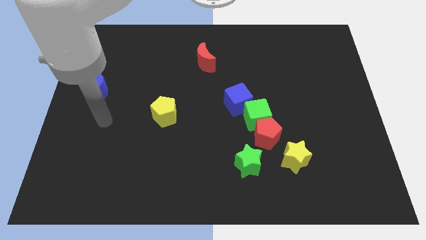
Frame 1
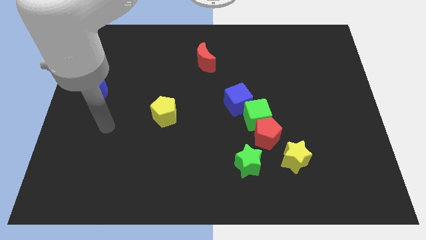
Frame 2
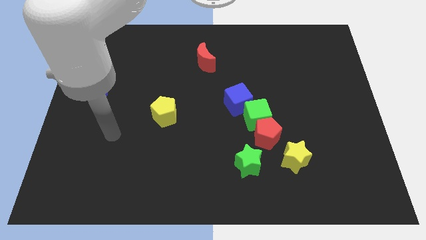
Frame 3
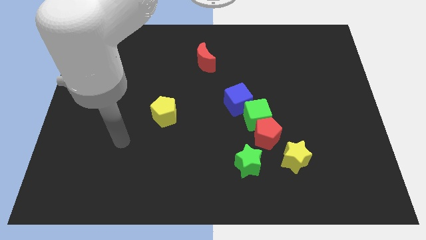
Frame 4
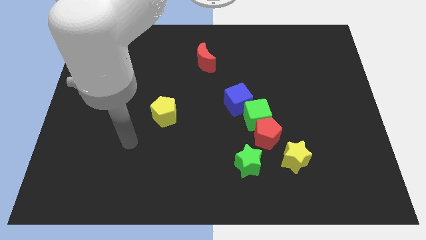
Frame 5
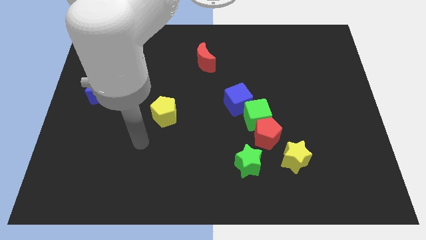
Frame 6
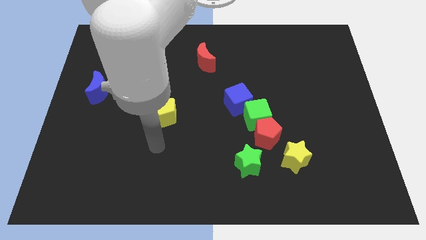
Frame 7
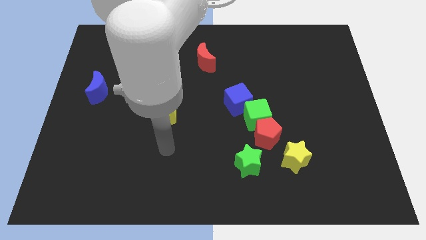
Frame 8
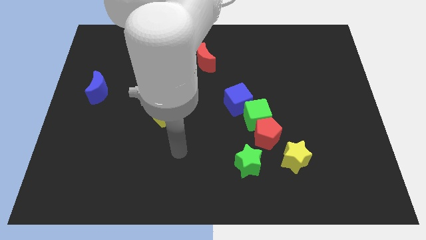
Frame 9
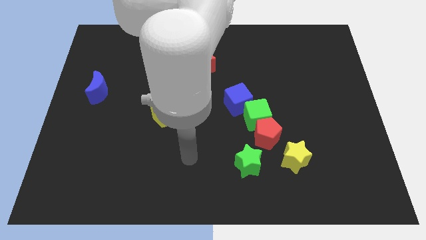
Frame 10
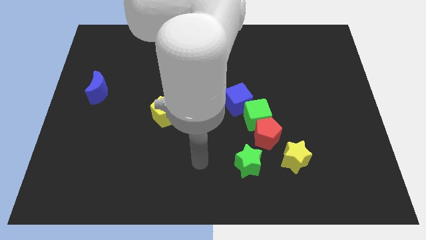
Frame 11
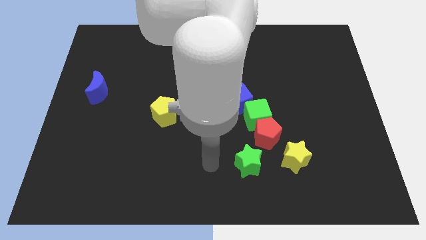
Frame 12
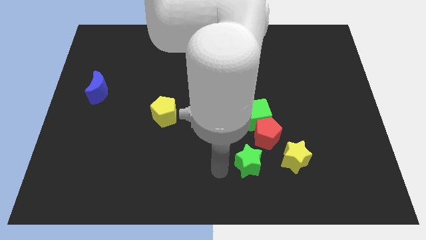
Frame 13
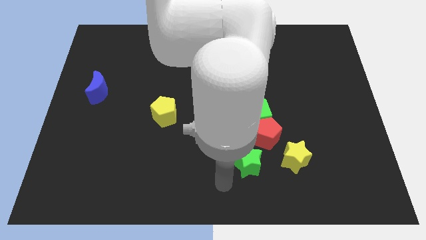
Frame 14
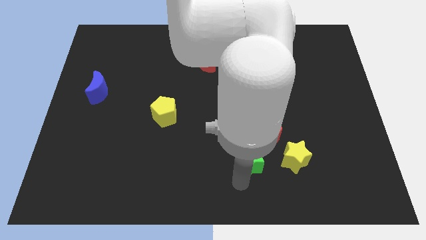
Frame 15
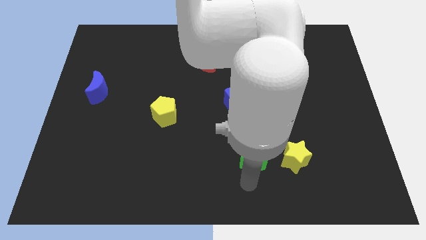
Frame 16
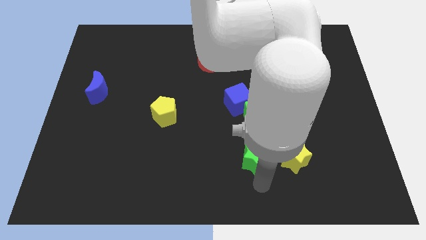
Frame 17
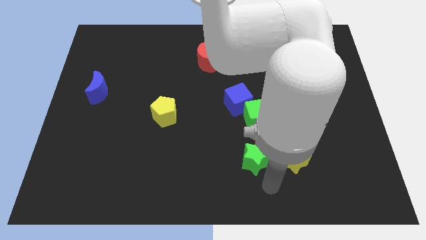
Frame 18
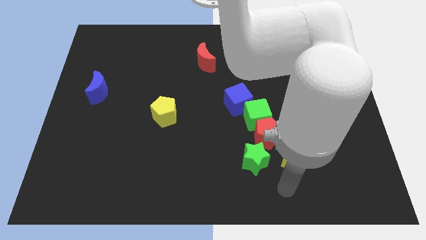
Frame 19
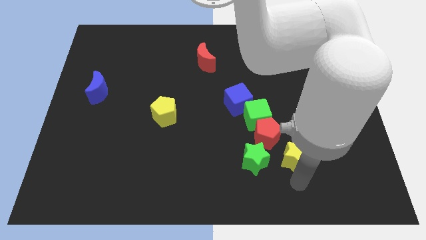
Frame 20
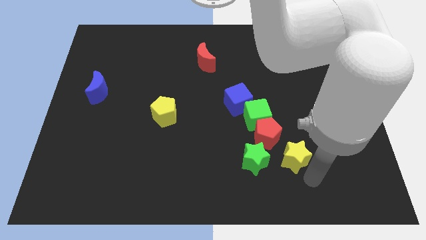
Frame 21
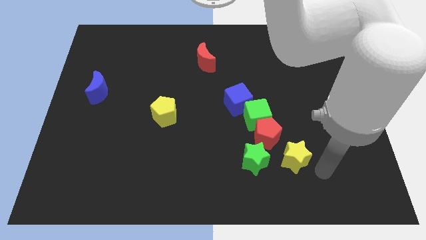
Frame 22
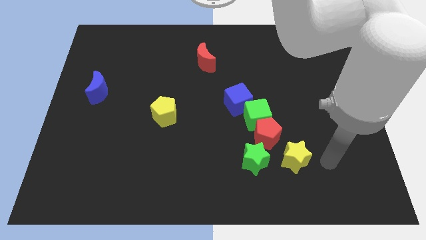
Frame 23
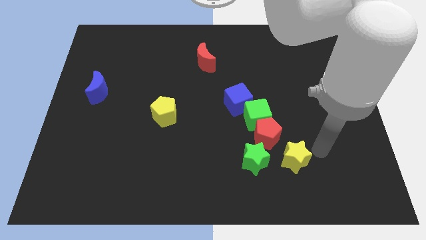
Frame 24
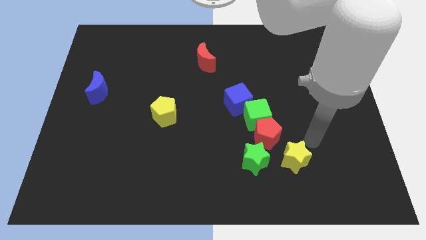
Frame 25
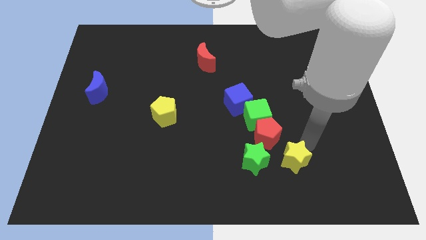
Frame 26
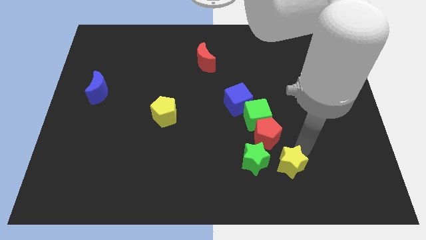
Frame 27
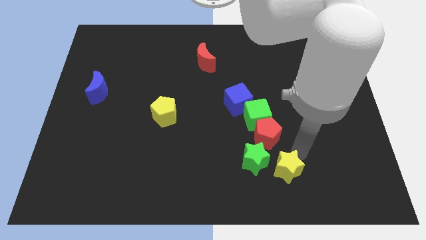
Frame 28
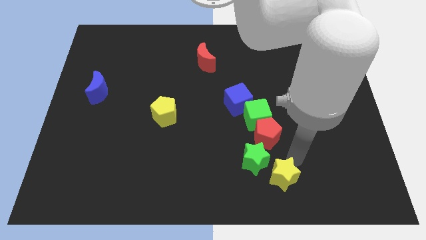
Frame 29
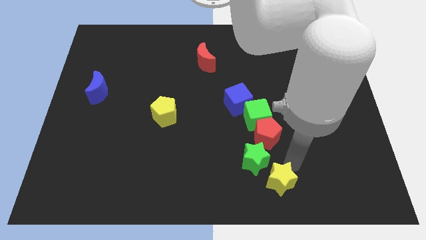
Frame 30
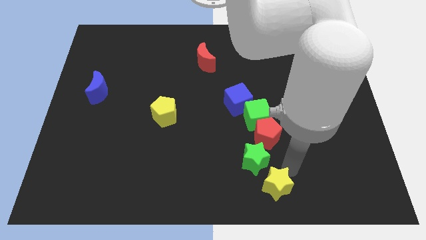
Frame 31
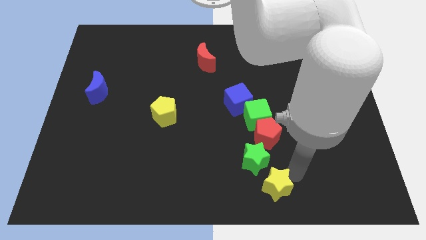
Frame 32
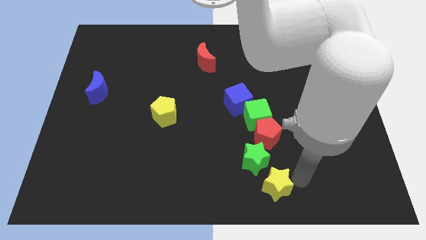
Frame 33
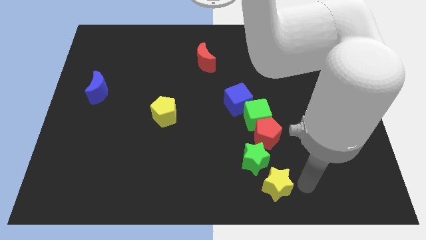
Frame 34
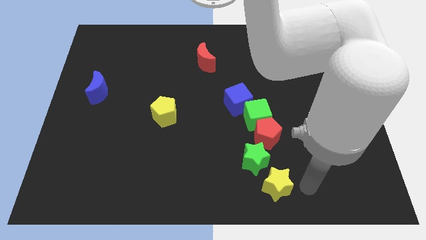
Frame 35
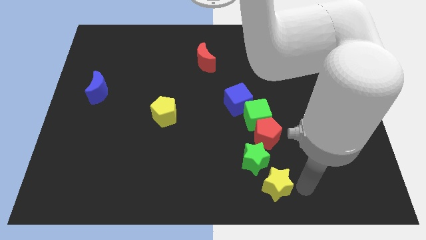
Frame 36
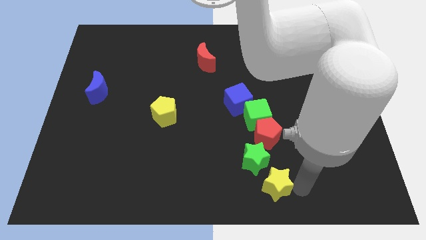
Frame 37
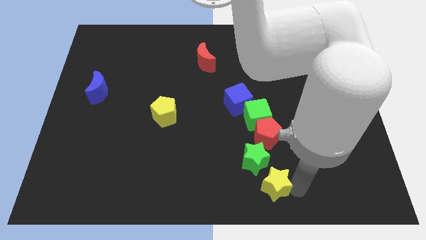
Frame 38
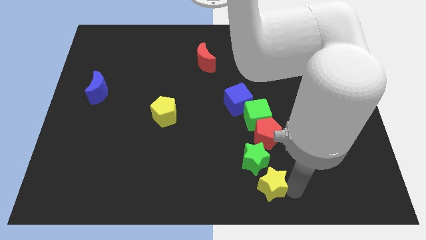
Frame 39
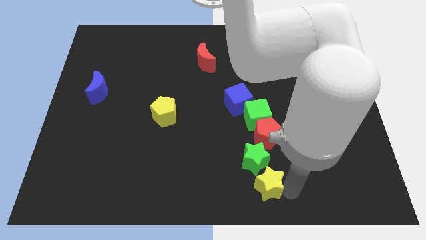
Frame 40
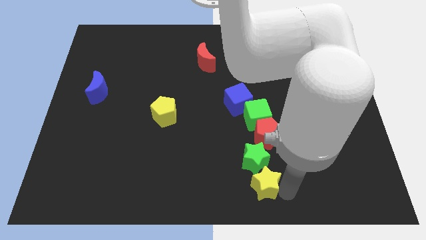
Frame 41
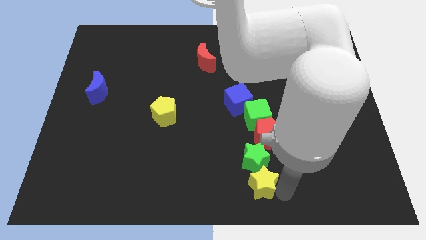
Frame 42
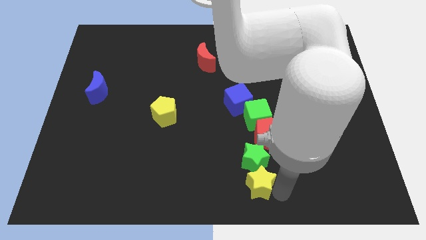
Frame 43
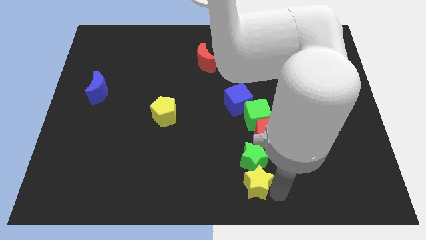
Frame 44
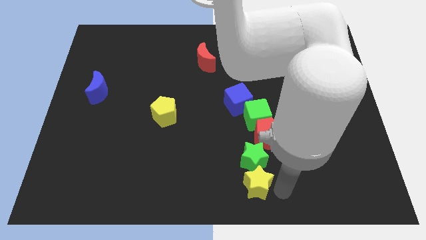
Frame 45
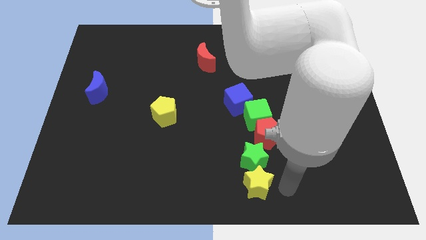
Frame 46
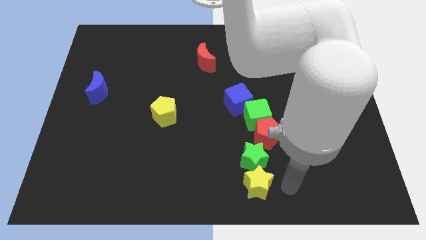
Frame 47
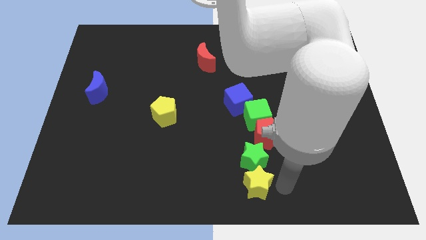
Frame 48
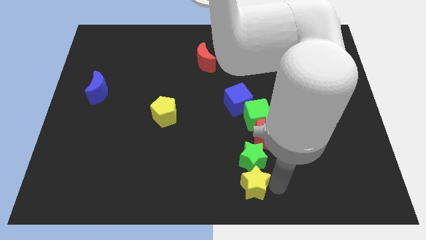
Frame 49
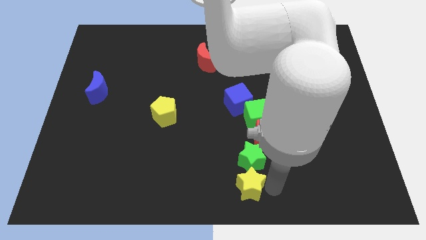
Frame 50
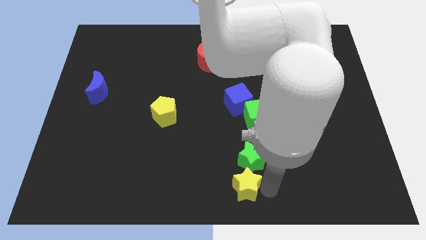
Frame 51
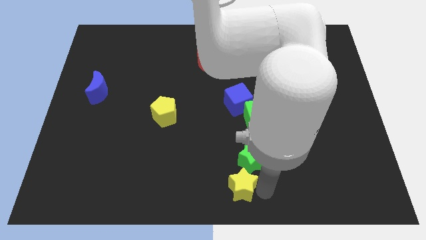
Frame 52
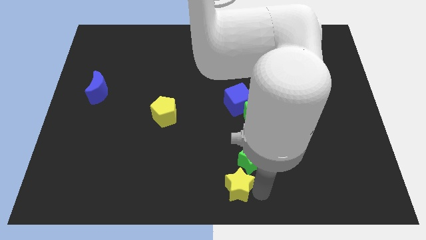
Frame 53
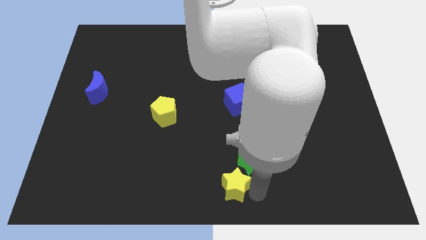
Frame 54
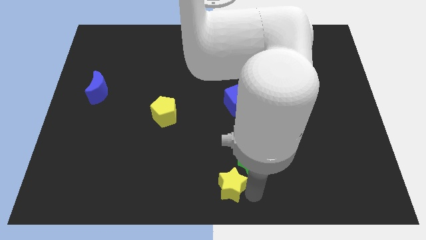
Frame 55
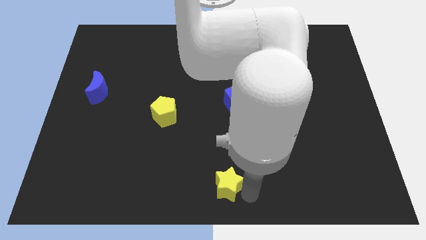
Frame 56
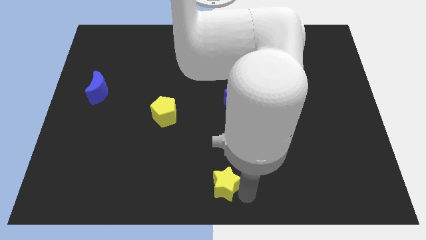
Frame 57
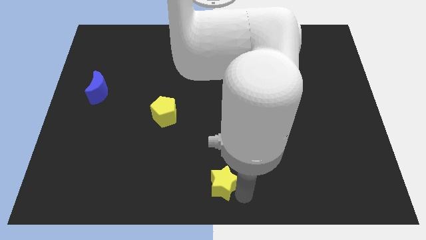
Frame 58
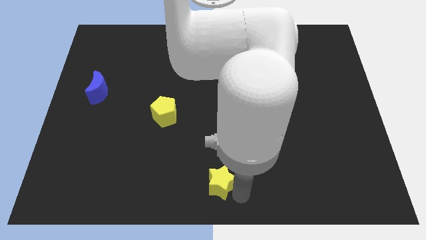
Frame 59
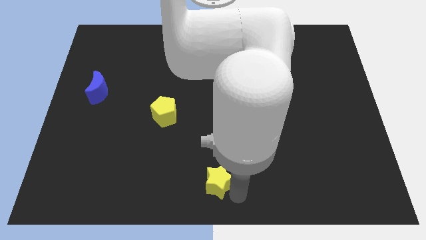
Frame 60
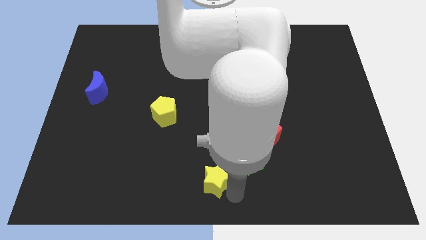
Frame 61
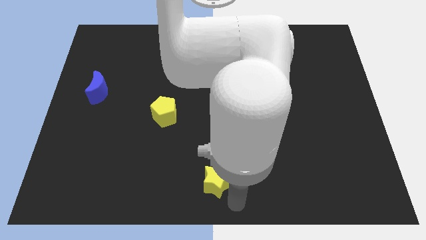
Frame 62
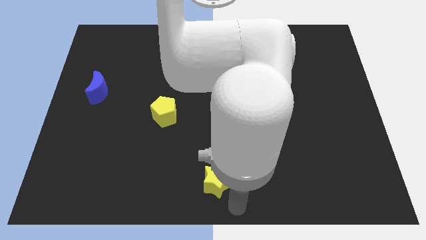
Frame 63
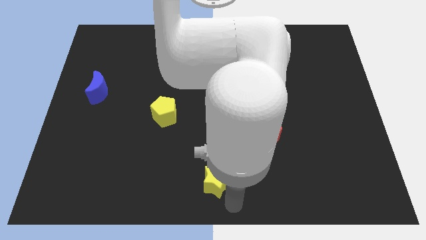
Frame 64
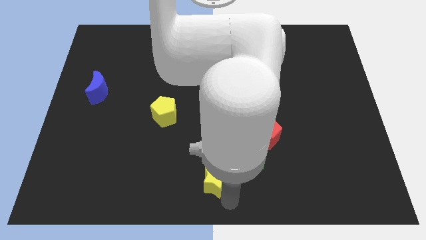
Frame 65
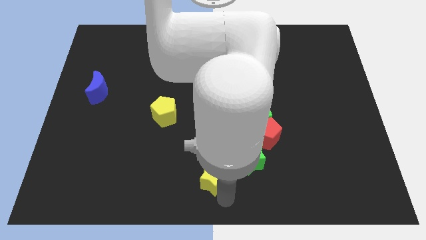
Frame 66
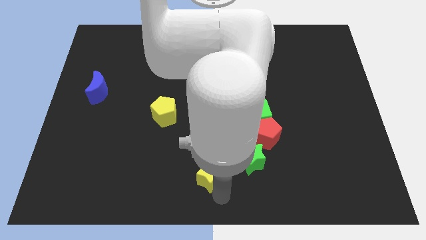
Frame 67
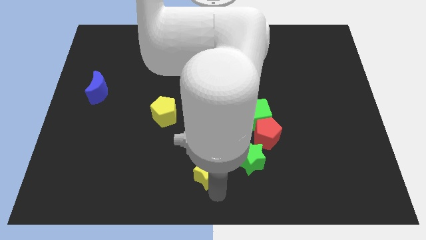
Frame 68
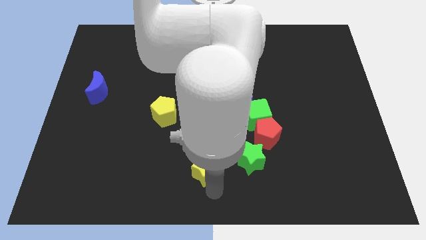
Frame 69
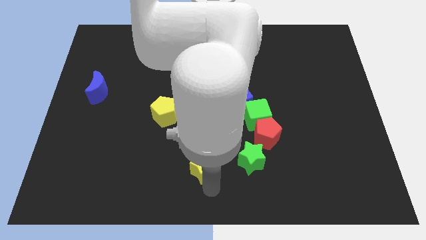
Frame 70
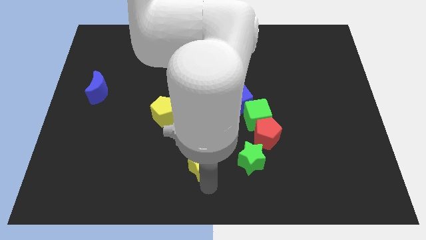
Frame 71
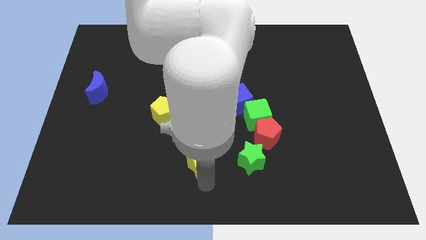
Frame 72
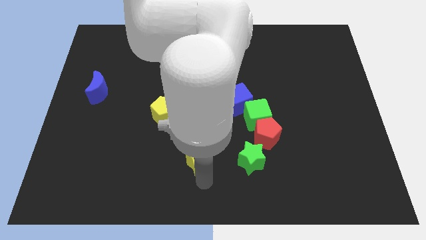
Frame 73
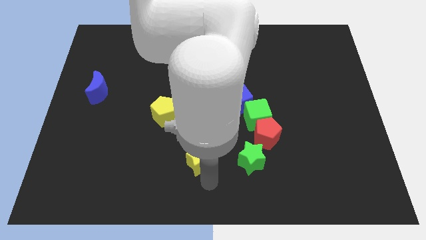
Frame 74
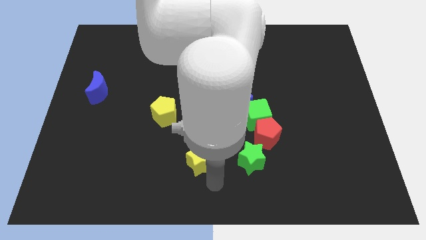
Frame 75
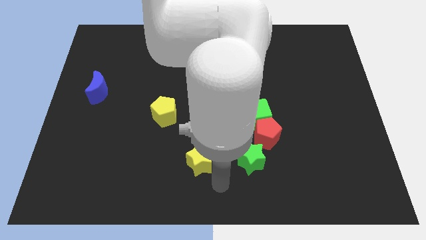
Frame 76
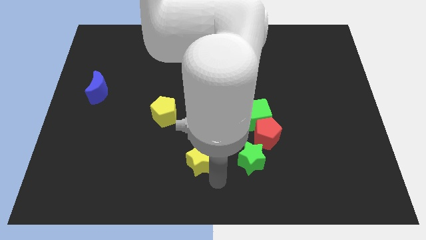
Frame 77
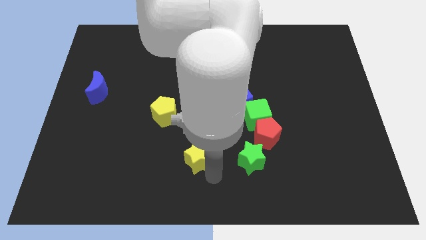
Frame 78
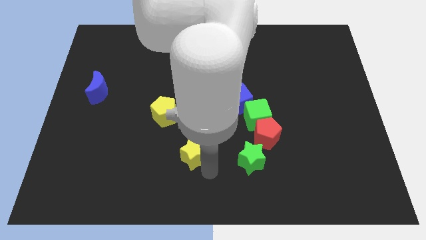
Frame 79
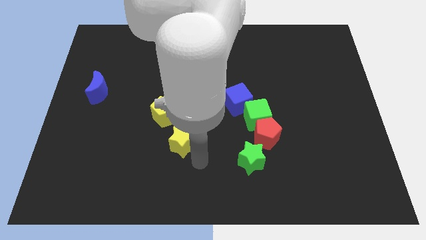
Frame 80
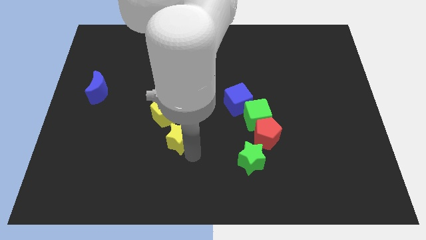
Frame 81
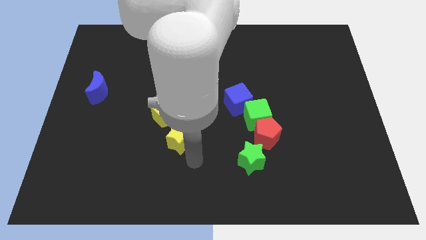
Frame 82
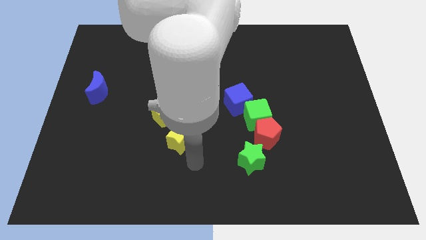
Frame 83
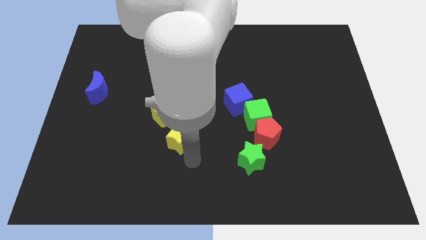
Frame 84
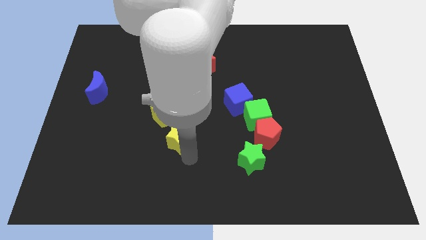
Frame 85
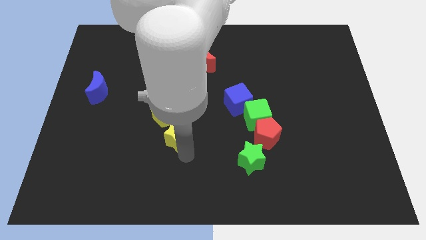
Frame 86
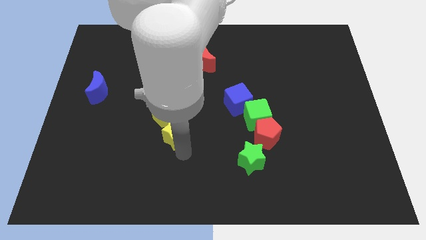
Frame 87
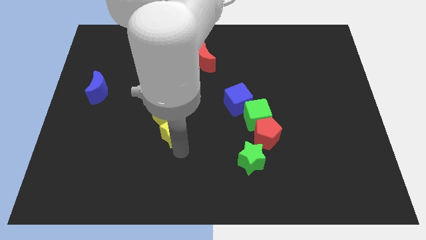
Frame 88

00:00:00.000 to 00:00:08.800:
move the yellow star next to the yellow pentagon
